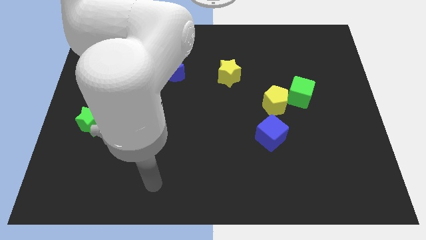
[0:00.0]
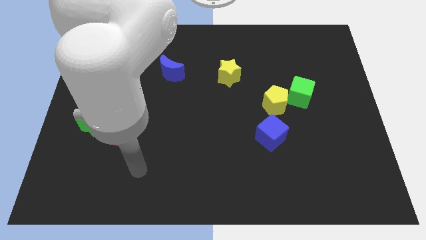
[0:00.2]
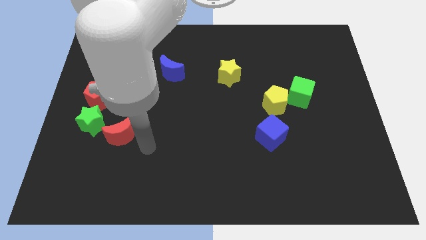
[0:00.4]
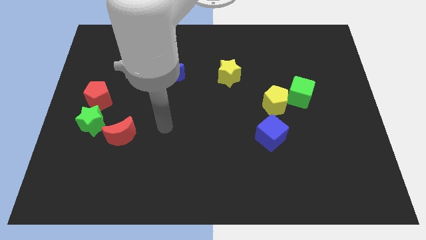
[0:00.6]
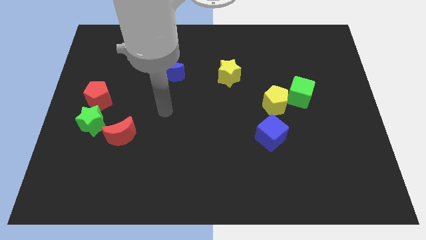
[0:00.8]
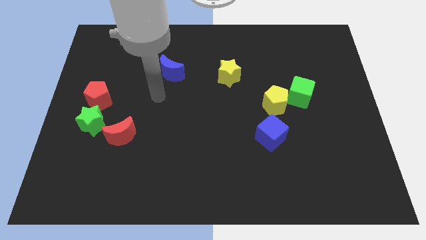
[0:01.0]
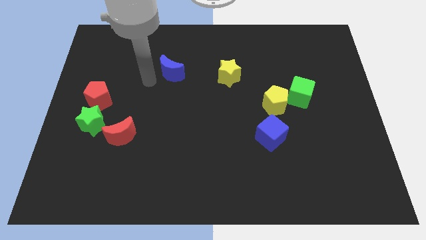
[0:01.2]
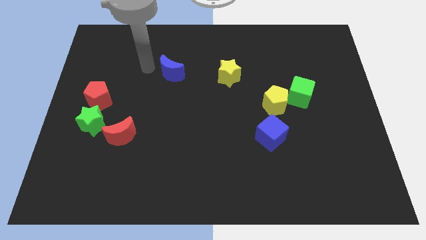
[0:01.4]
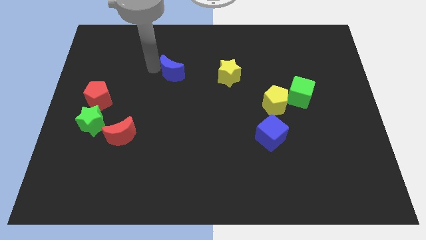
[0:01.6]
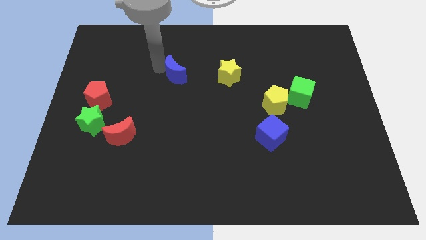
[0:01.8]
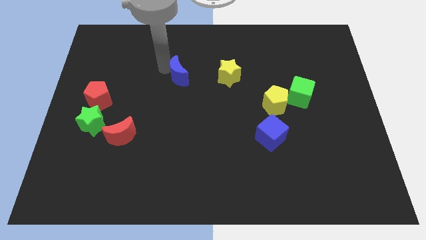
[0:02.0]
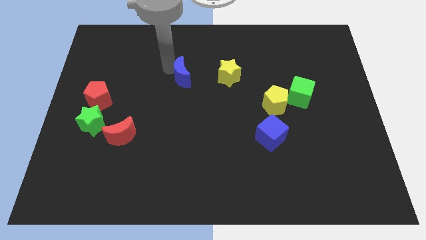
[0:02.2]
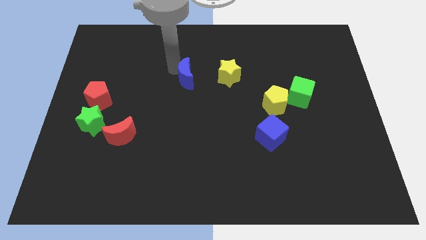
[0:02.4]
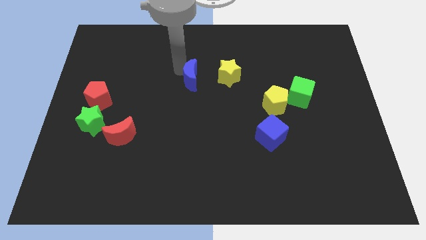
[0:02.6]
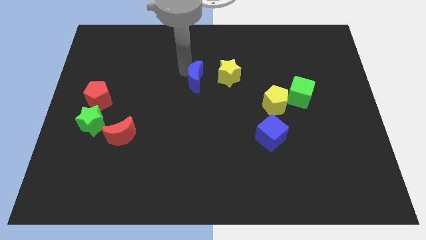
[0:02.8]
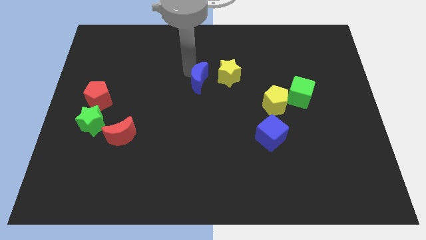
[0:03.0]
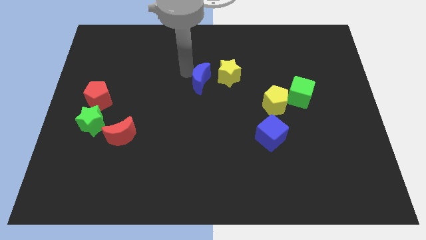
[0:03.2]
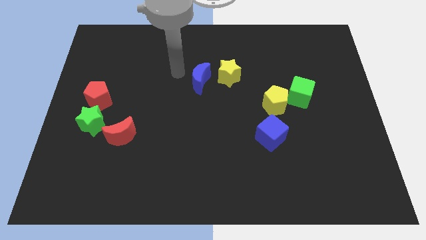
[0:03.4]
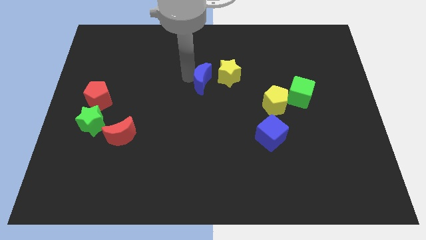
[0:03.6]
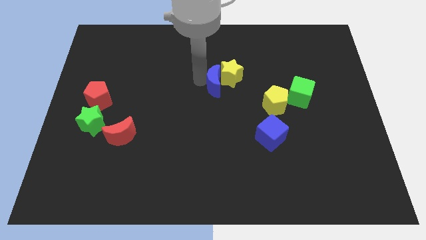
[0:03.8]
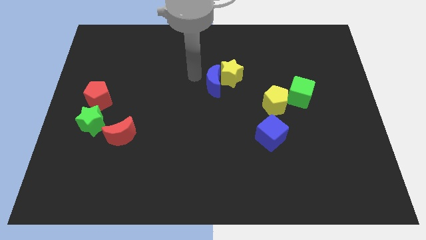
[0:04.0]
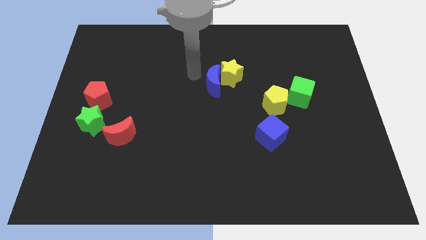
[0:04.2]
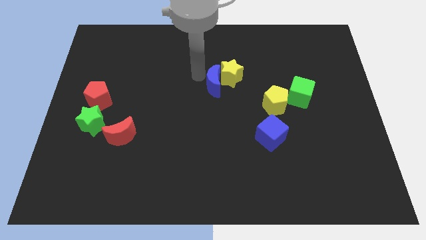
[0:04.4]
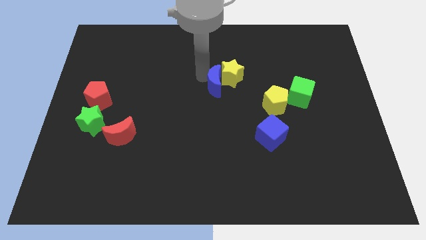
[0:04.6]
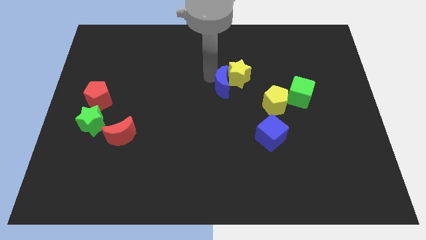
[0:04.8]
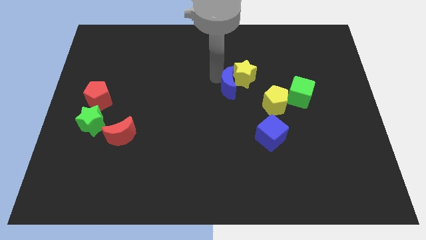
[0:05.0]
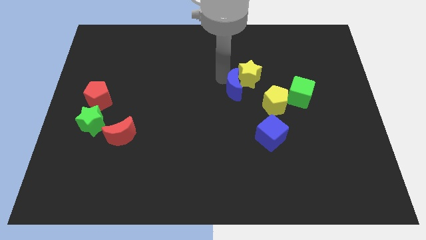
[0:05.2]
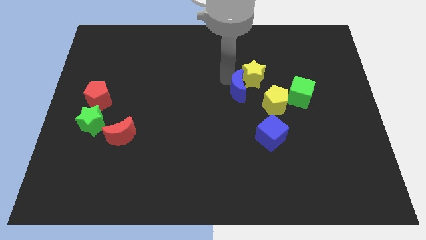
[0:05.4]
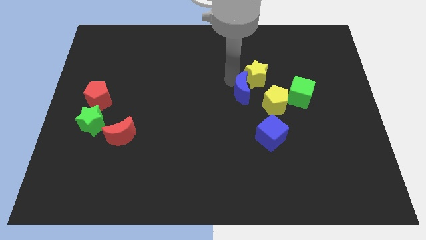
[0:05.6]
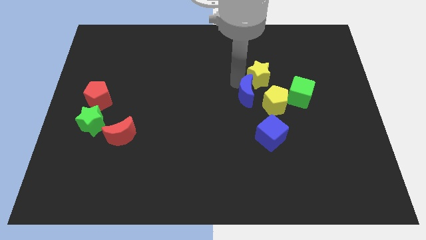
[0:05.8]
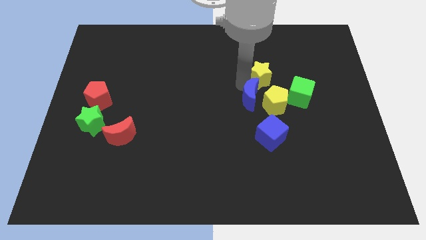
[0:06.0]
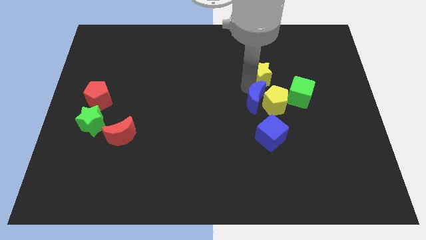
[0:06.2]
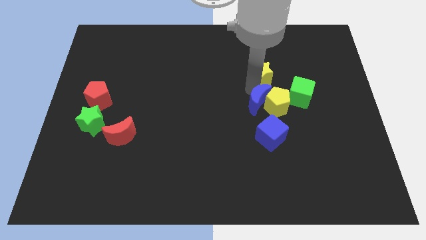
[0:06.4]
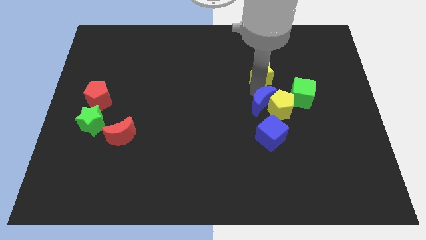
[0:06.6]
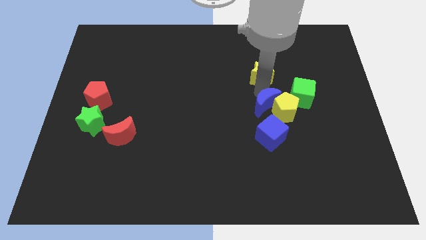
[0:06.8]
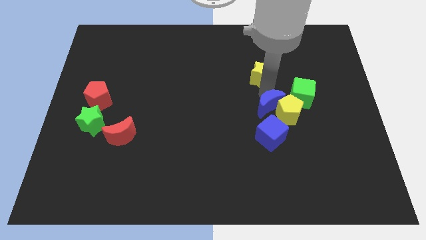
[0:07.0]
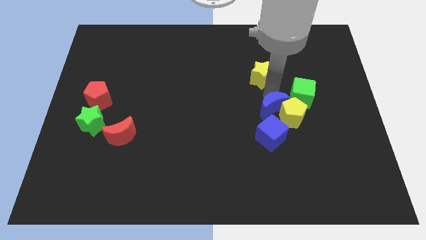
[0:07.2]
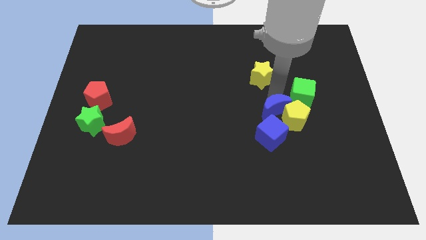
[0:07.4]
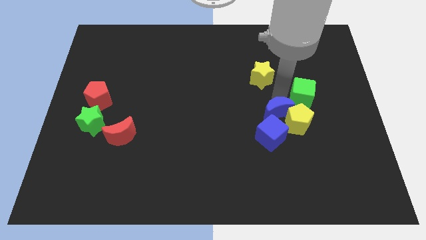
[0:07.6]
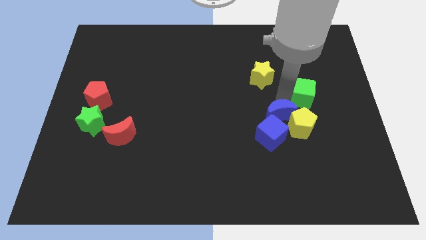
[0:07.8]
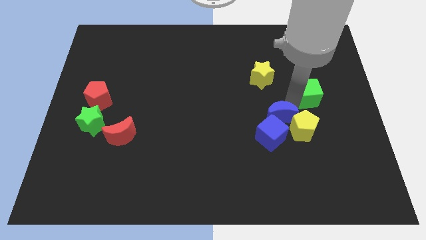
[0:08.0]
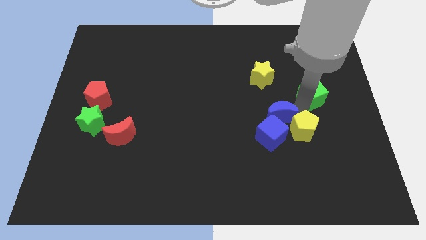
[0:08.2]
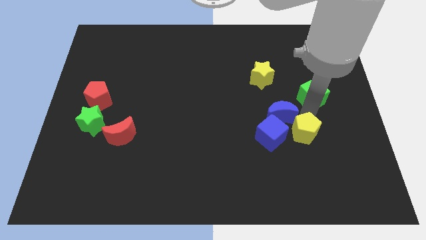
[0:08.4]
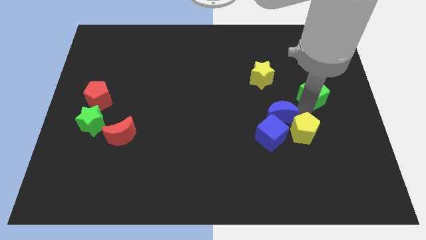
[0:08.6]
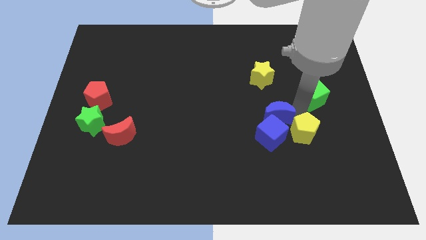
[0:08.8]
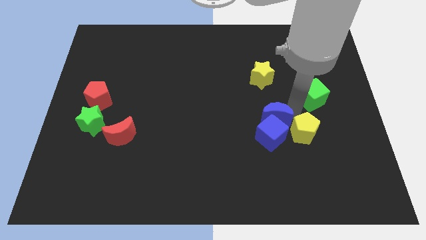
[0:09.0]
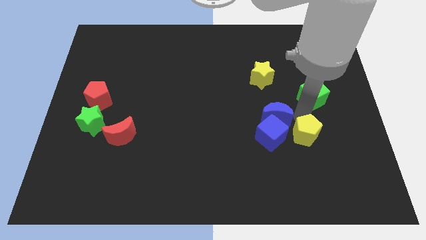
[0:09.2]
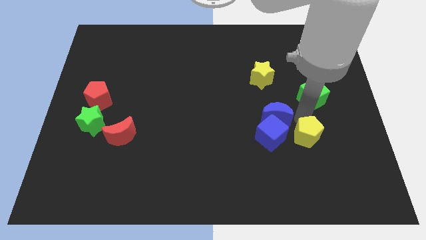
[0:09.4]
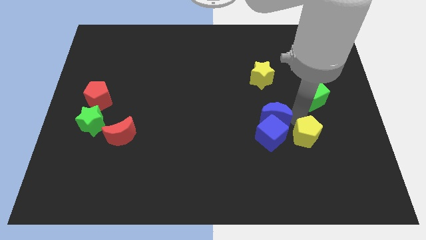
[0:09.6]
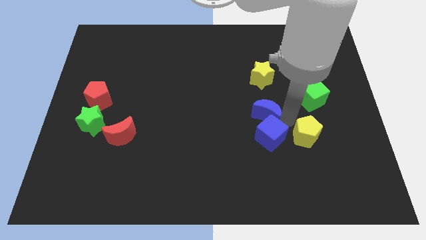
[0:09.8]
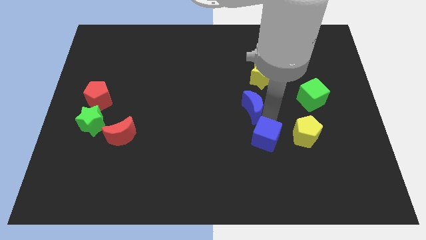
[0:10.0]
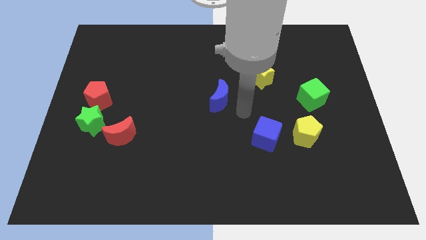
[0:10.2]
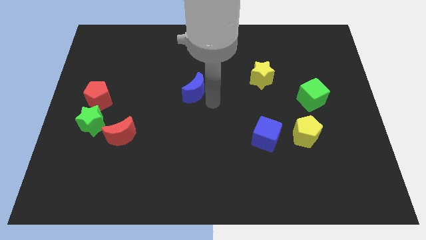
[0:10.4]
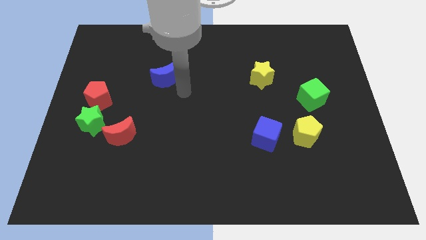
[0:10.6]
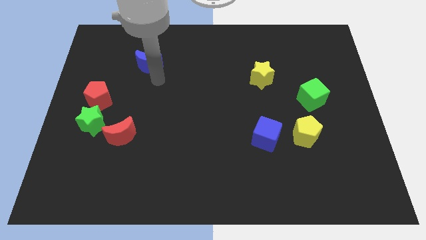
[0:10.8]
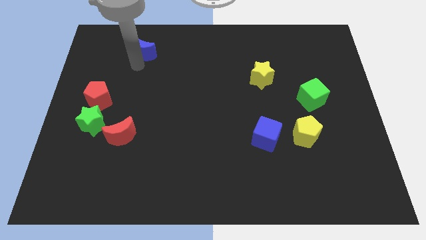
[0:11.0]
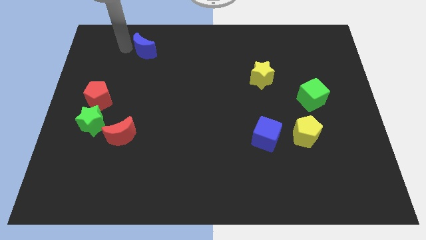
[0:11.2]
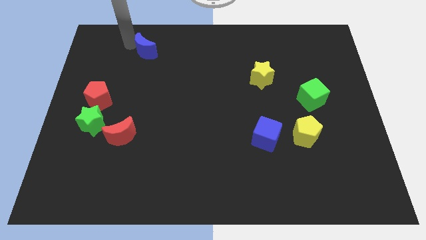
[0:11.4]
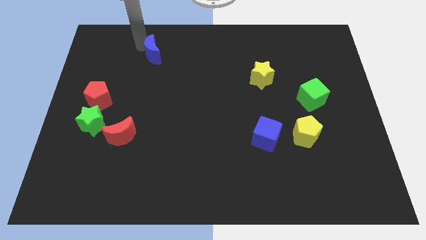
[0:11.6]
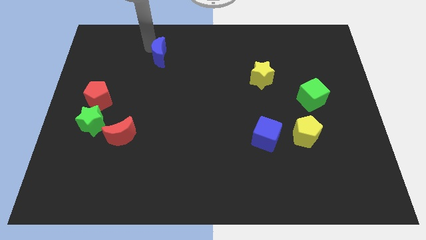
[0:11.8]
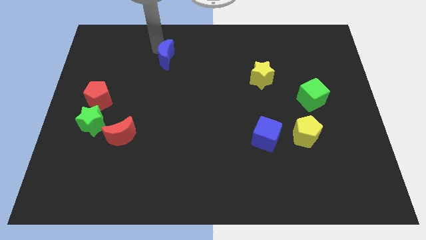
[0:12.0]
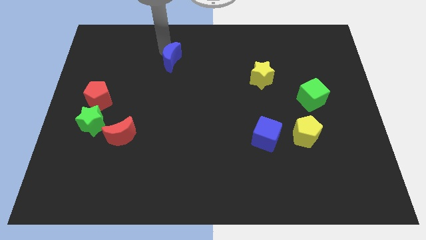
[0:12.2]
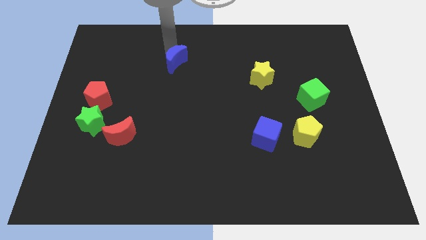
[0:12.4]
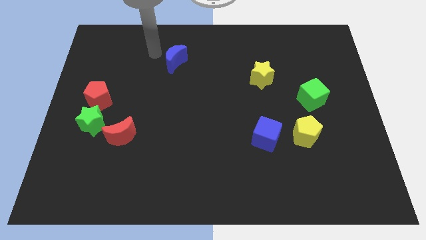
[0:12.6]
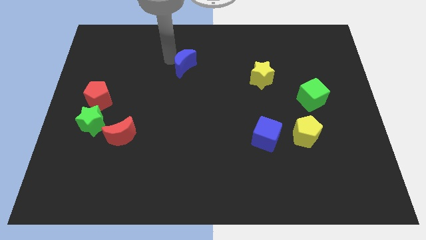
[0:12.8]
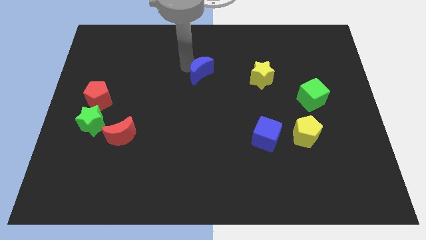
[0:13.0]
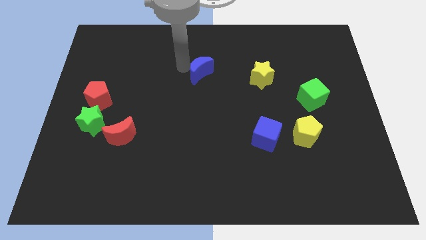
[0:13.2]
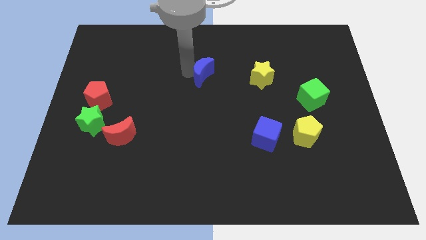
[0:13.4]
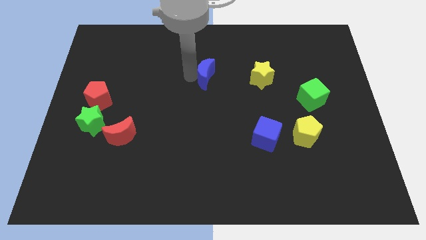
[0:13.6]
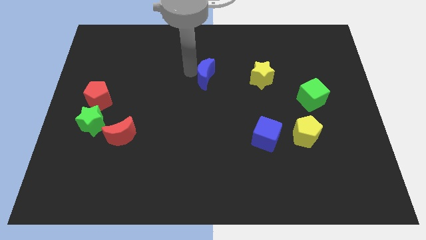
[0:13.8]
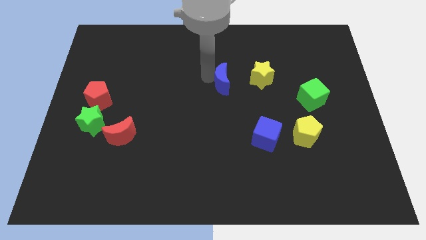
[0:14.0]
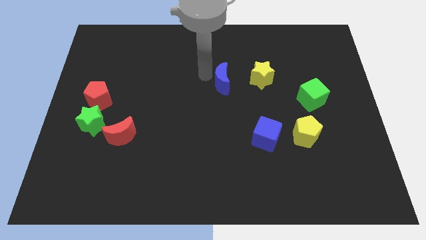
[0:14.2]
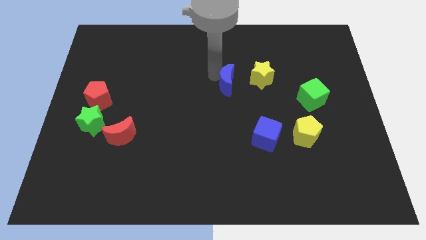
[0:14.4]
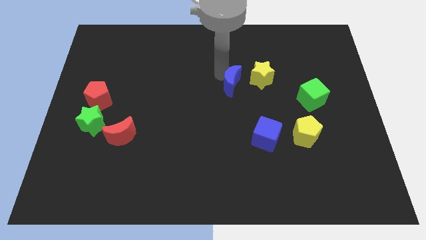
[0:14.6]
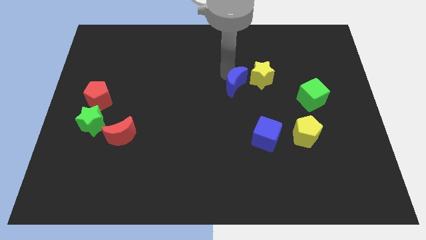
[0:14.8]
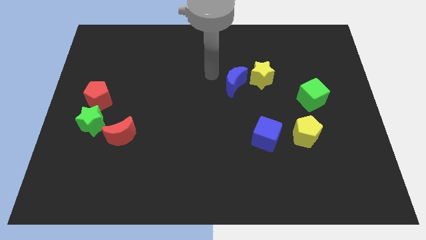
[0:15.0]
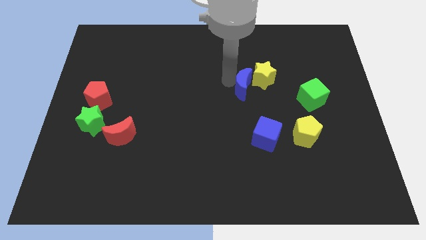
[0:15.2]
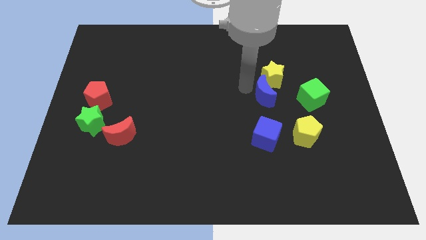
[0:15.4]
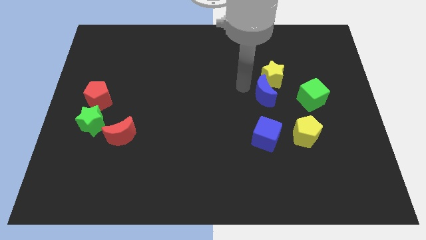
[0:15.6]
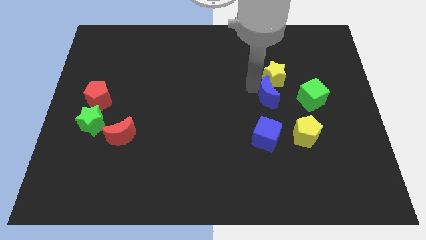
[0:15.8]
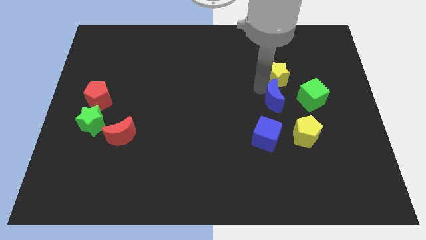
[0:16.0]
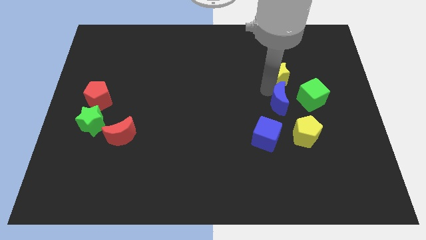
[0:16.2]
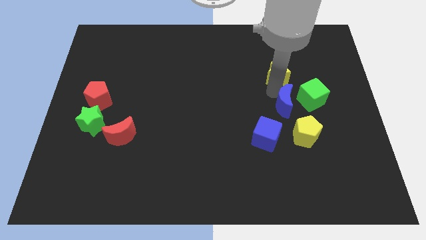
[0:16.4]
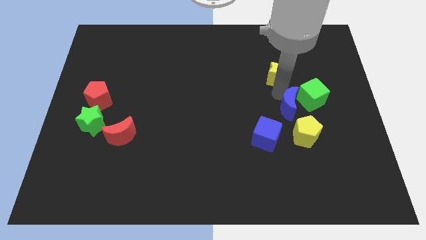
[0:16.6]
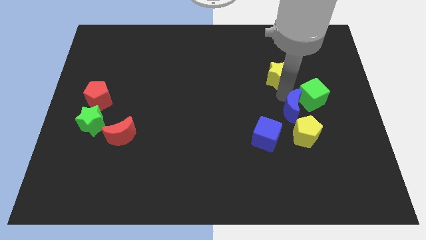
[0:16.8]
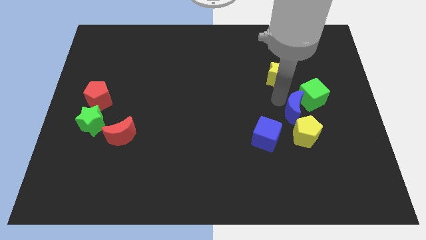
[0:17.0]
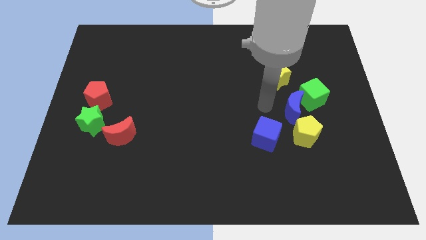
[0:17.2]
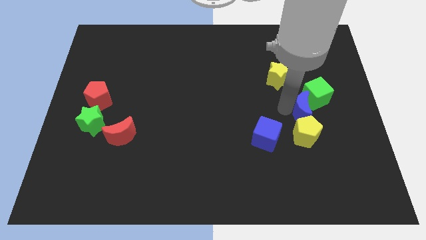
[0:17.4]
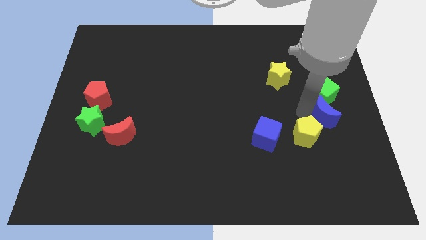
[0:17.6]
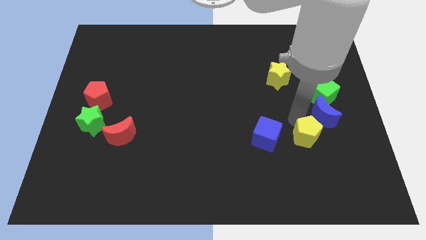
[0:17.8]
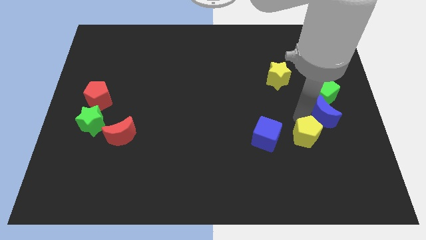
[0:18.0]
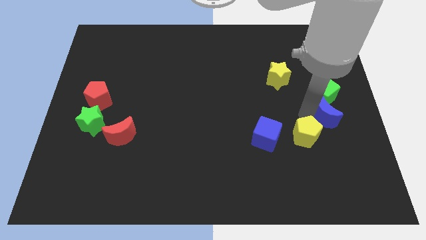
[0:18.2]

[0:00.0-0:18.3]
put the blue moon to the bottom right side of the green cube
